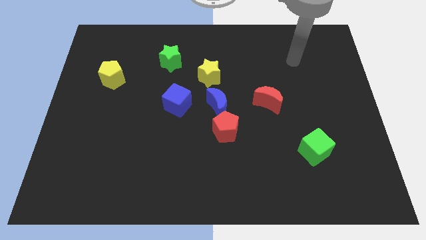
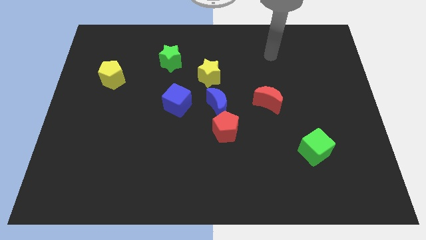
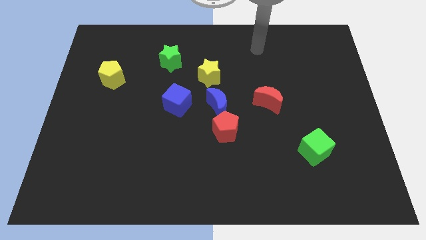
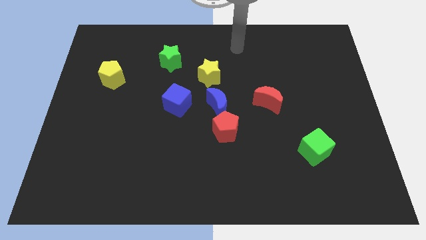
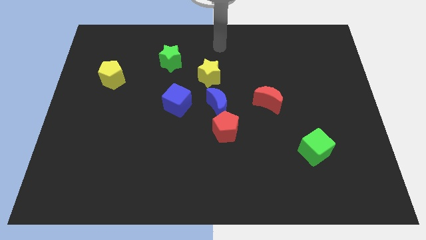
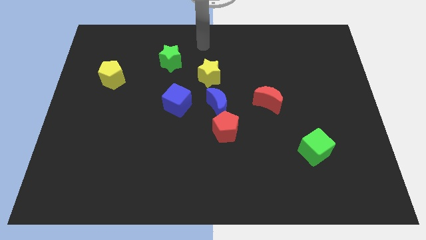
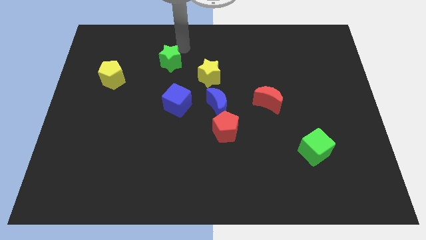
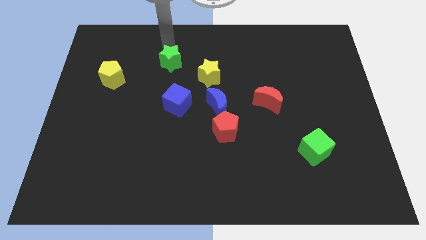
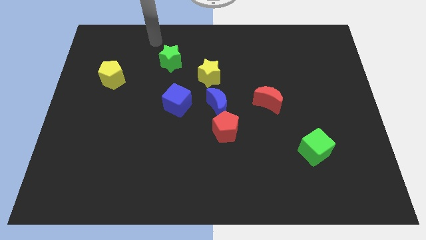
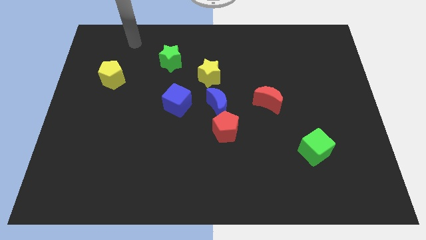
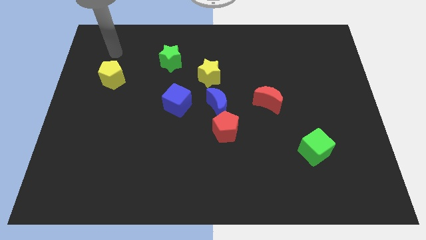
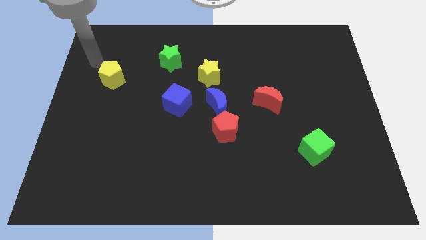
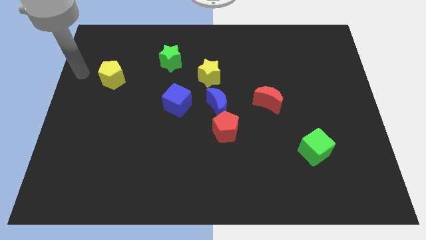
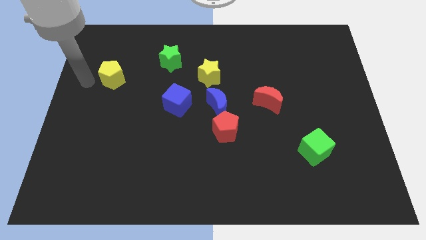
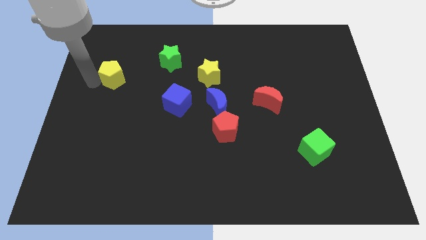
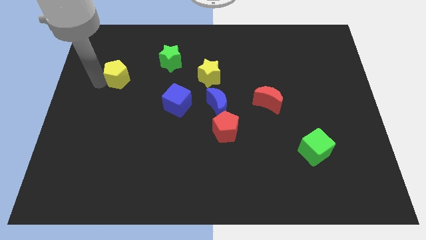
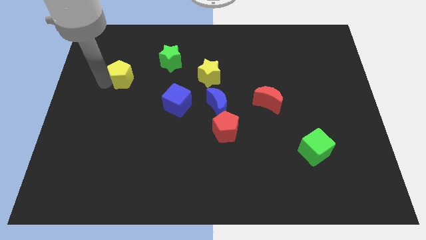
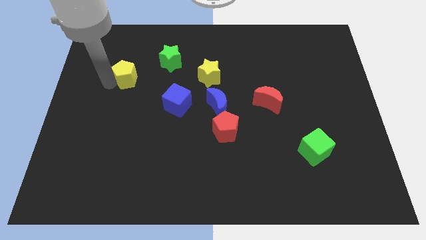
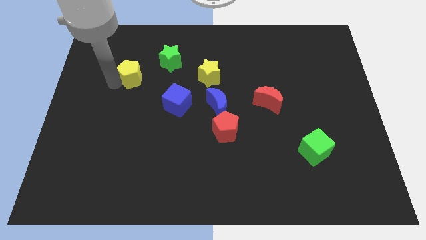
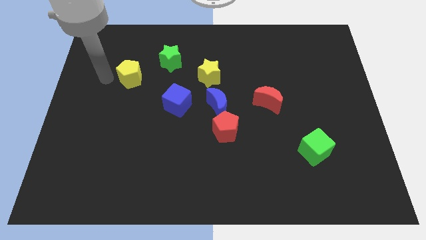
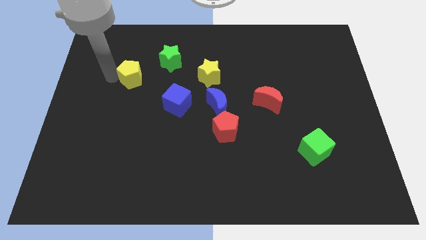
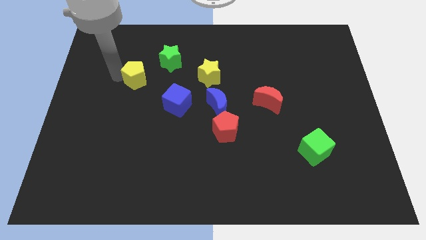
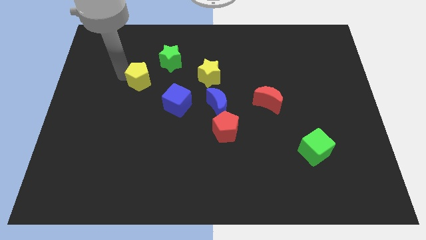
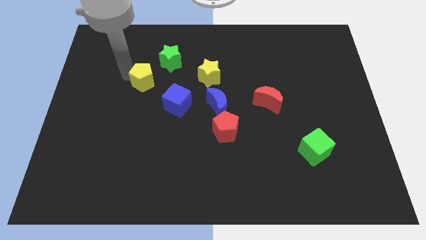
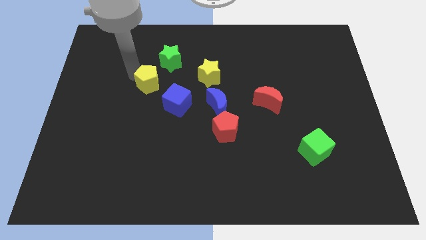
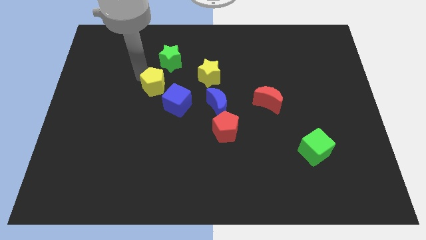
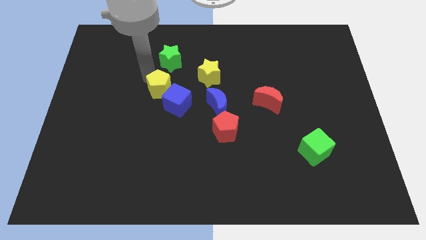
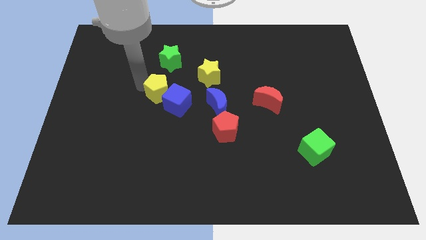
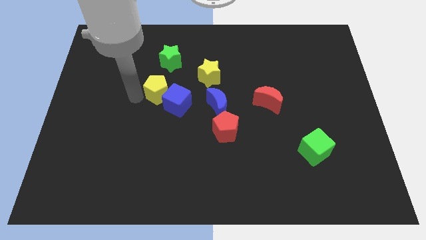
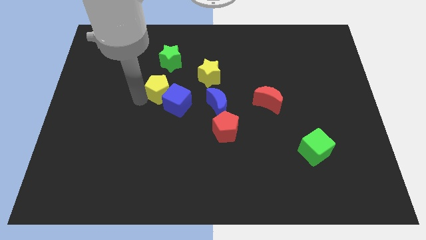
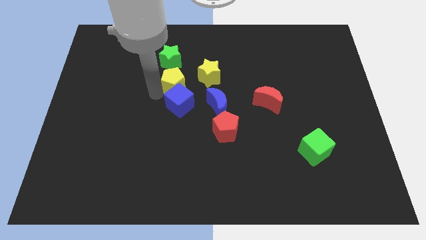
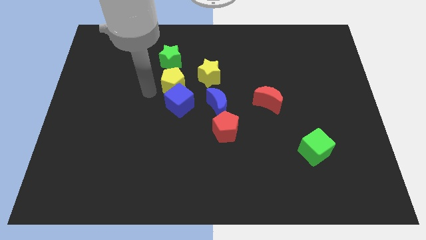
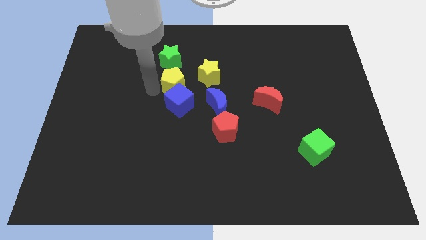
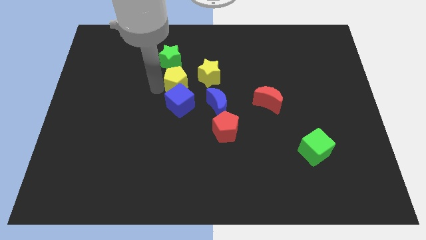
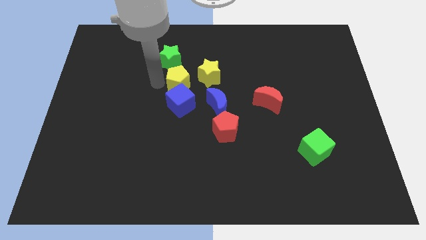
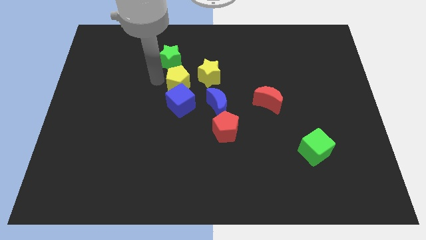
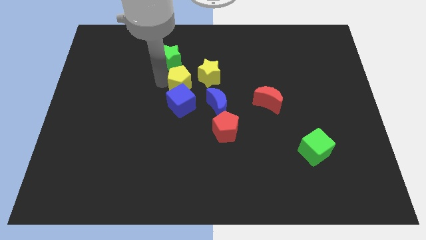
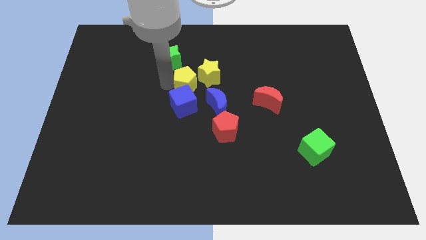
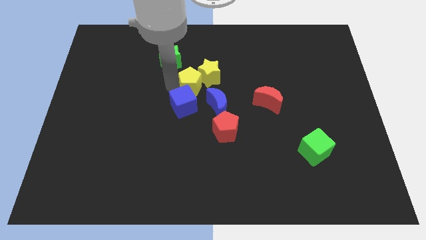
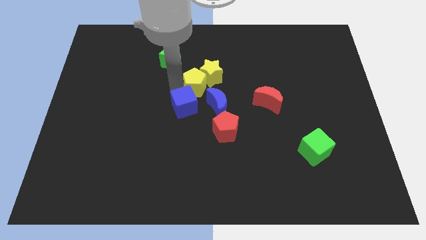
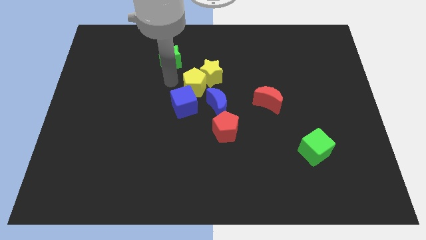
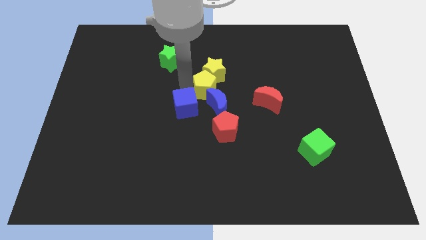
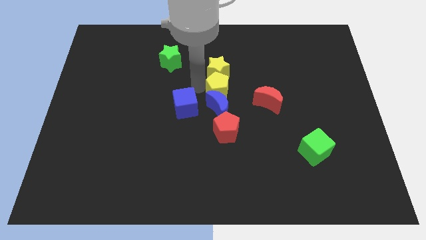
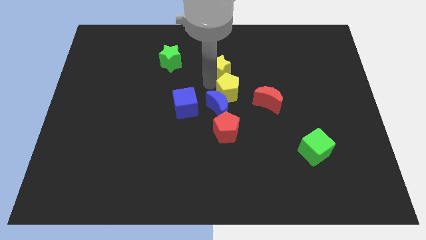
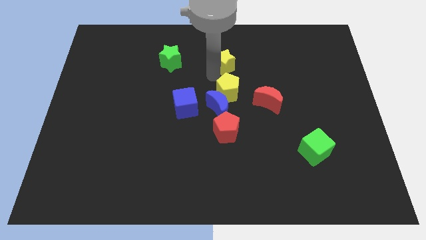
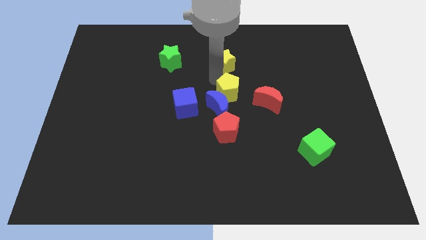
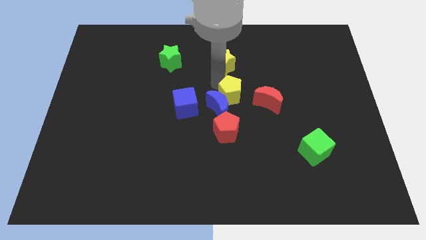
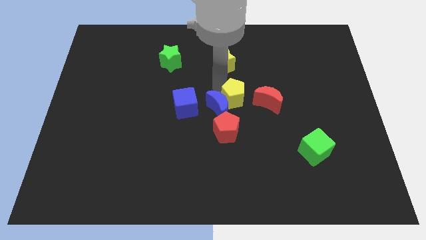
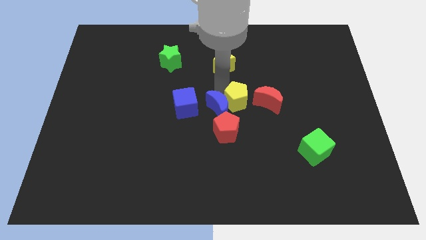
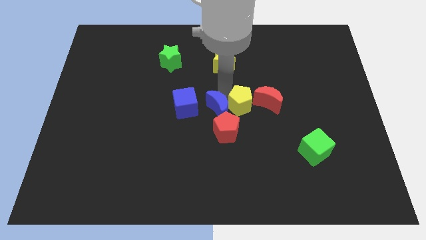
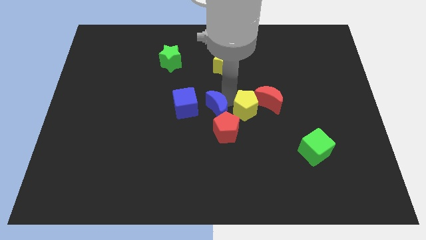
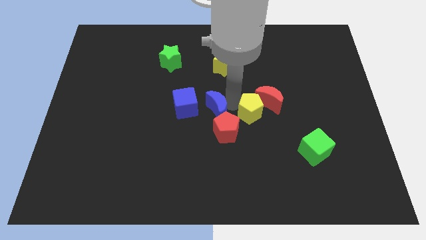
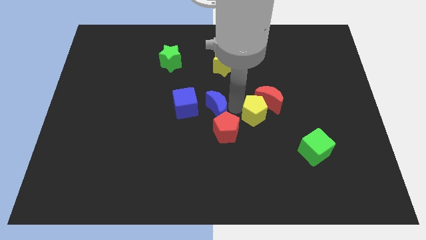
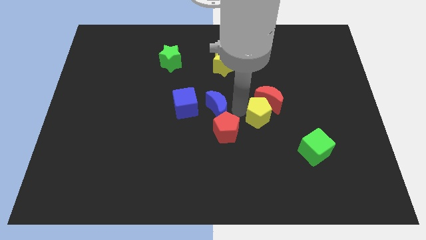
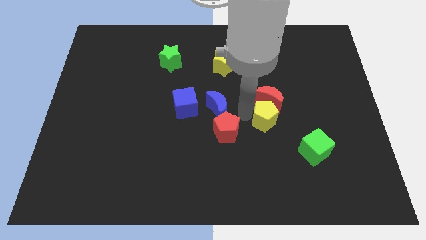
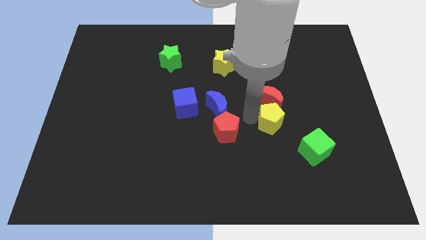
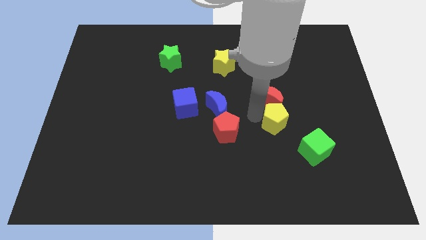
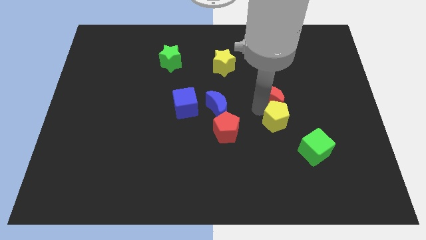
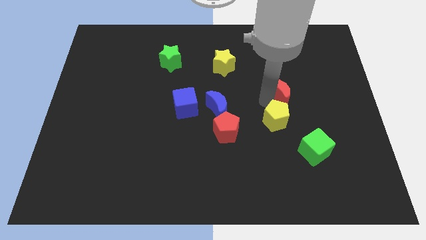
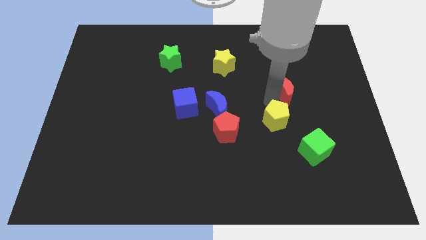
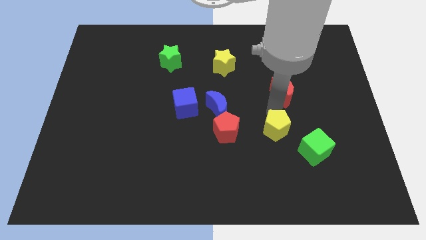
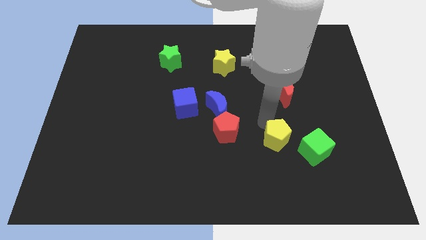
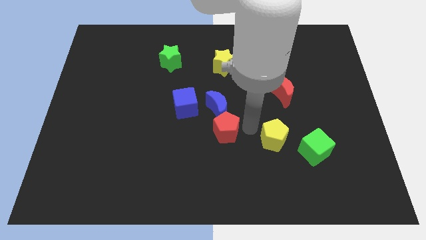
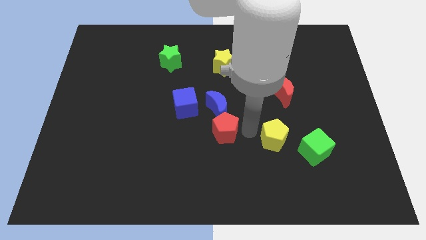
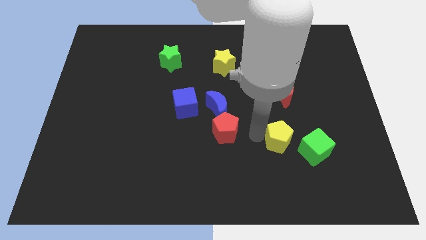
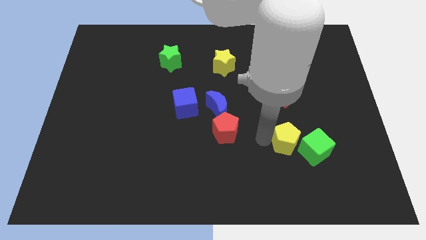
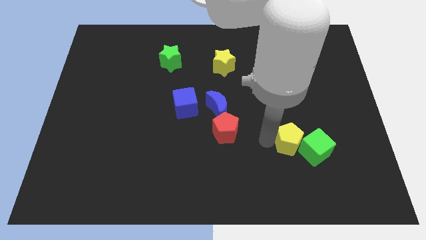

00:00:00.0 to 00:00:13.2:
slide the yellow pentagon next to the green cube

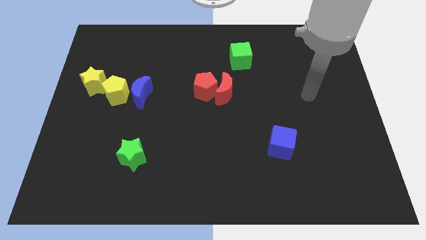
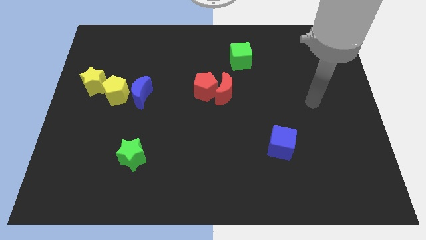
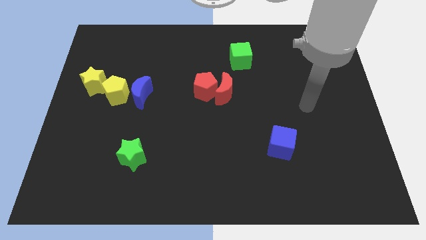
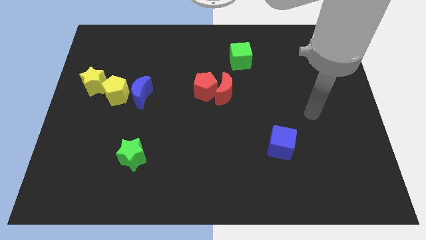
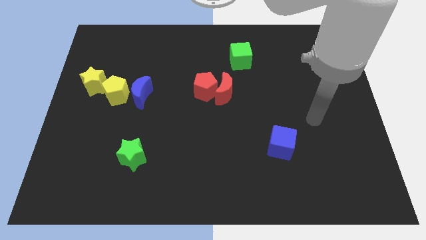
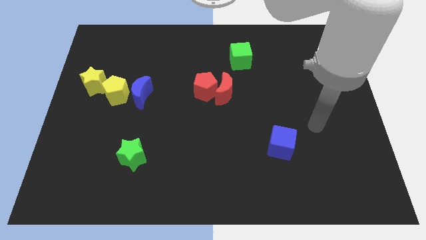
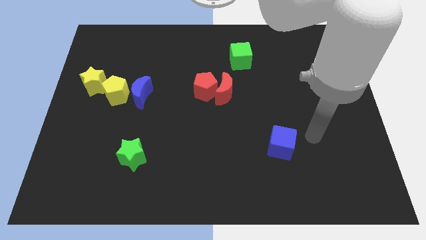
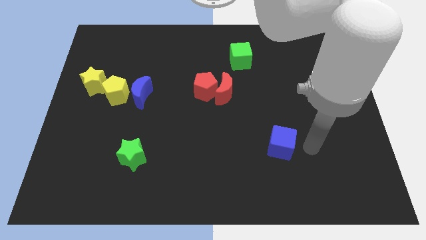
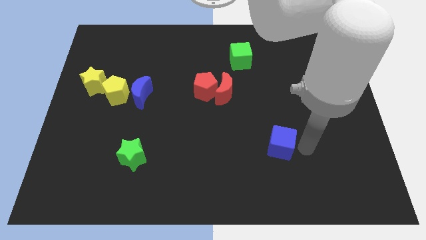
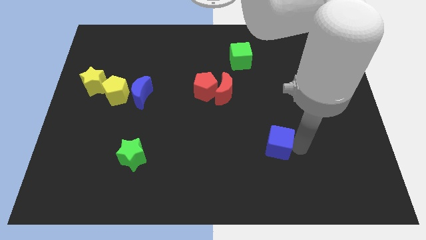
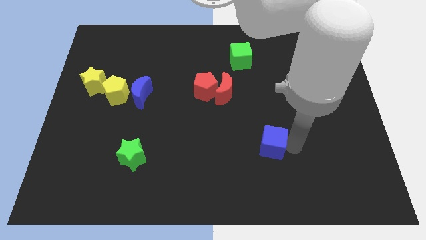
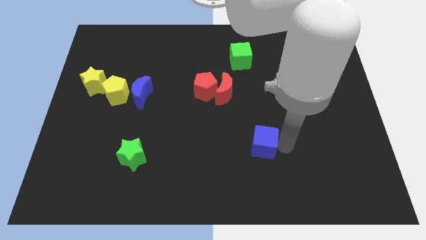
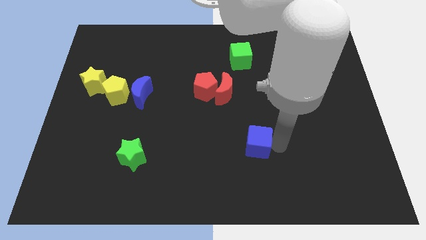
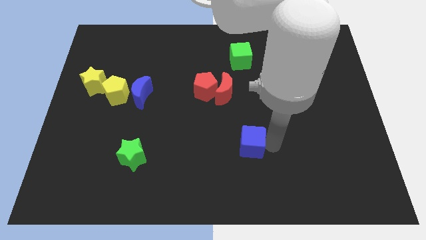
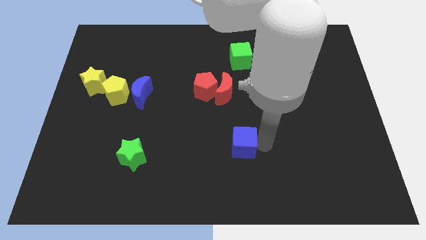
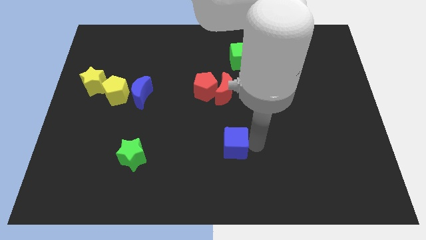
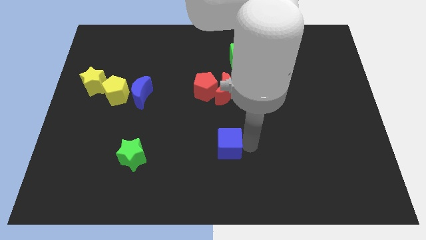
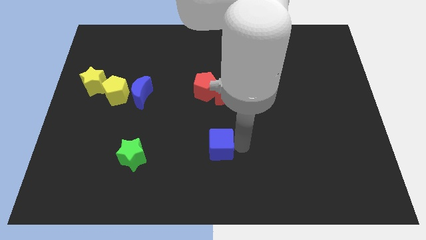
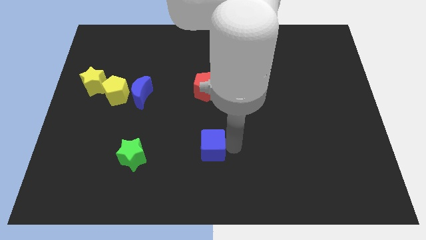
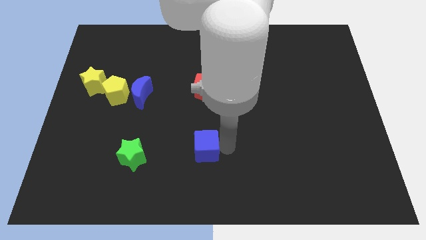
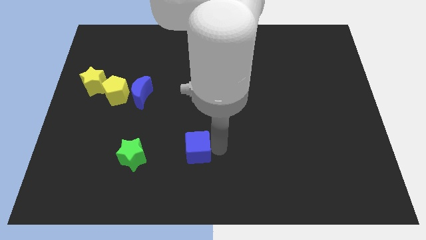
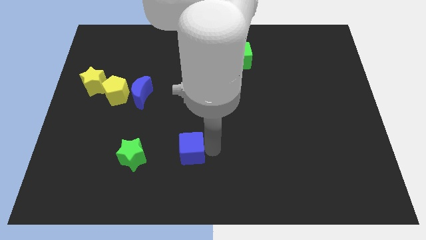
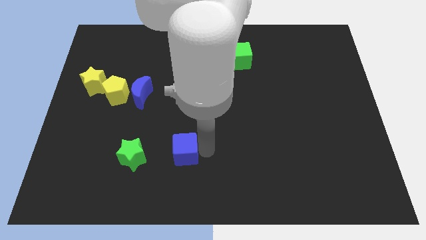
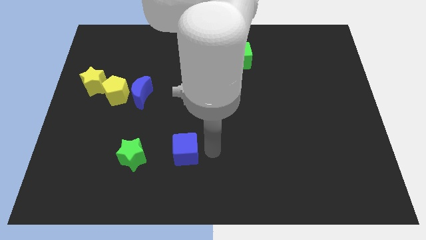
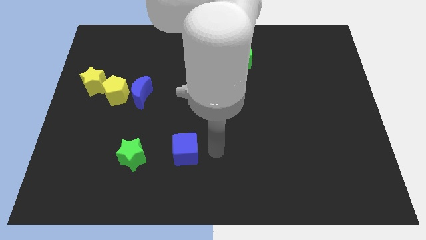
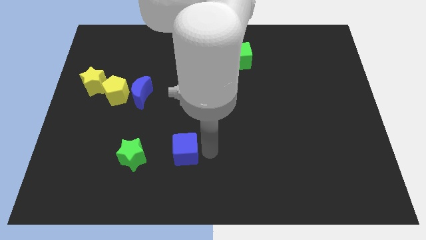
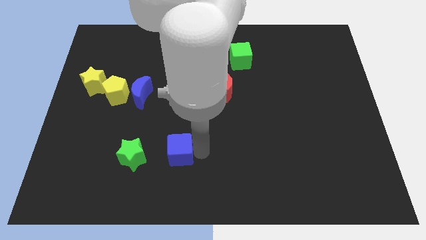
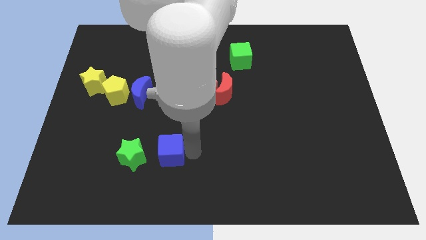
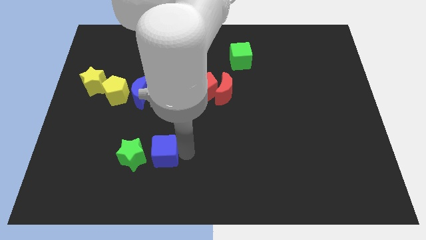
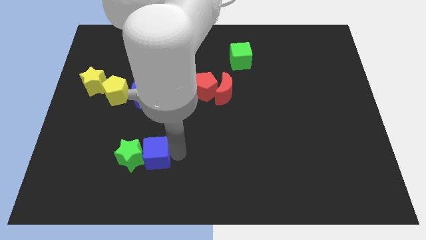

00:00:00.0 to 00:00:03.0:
move the blue cube next to the green star
